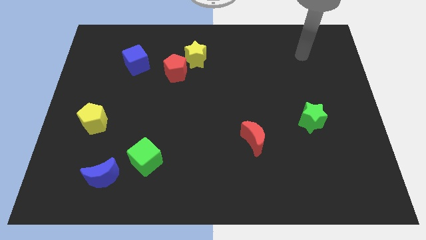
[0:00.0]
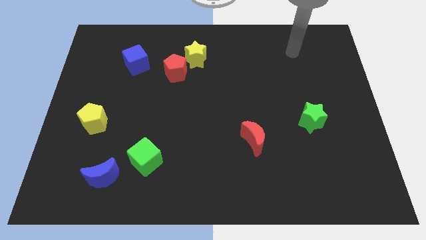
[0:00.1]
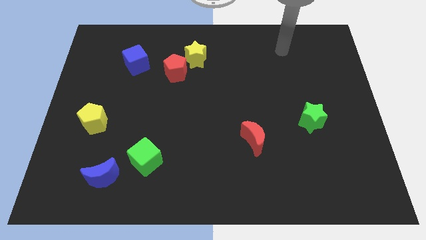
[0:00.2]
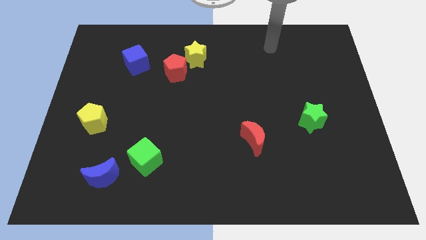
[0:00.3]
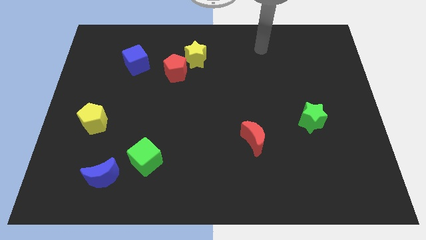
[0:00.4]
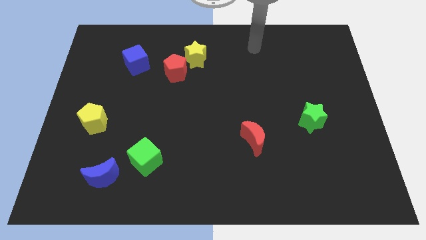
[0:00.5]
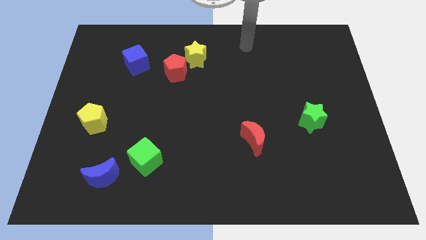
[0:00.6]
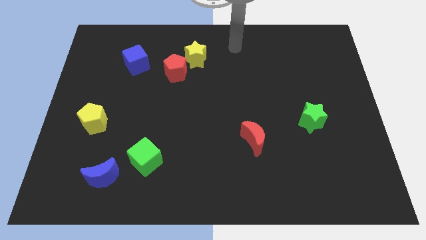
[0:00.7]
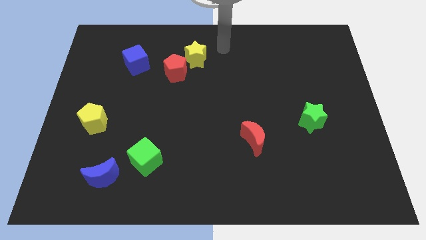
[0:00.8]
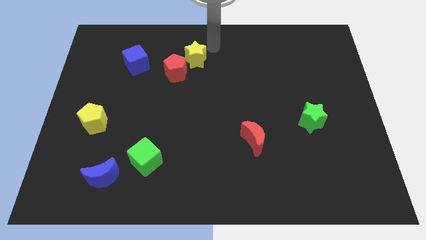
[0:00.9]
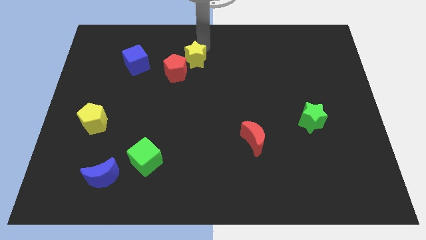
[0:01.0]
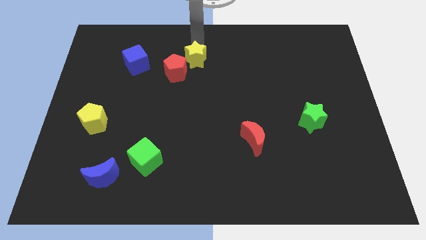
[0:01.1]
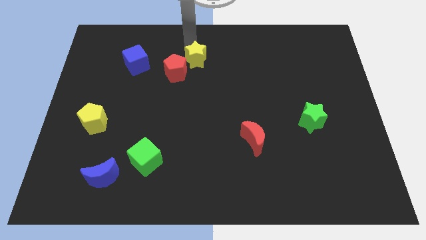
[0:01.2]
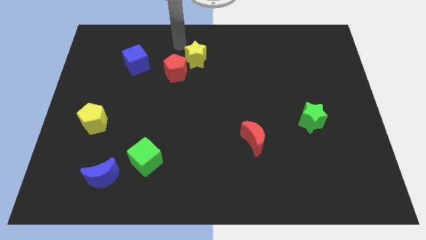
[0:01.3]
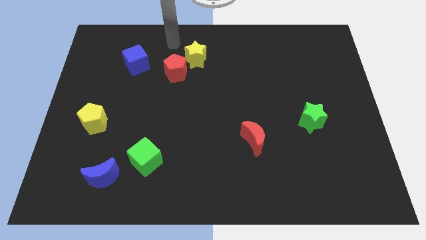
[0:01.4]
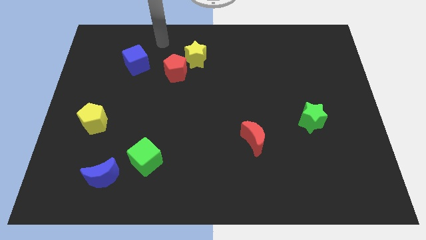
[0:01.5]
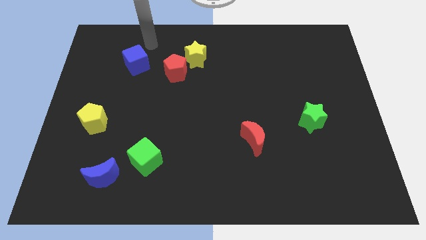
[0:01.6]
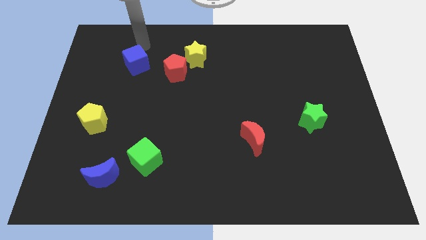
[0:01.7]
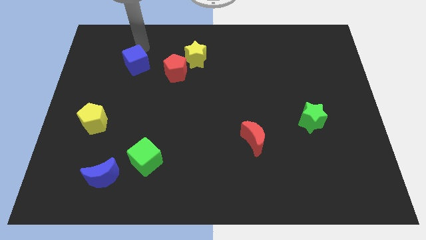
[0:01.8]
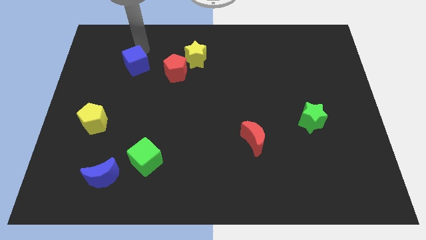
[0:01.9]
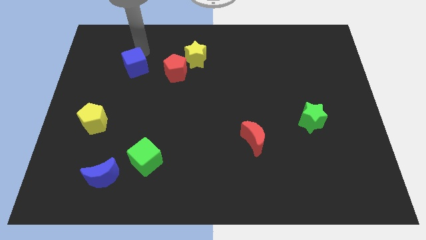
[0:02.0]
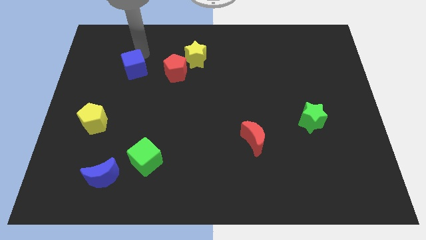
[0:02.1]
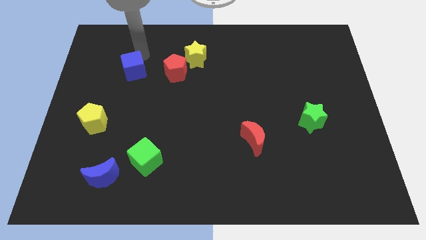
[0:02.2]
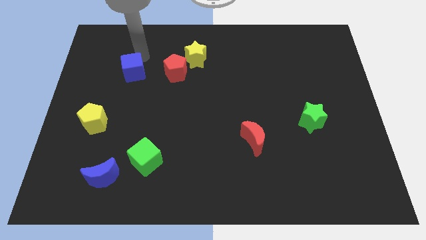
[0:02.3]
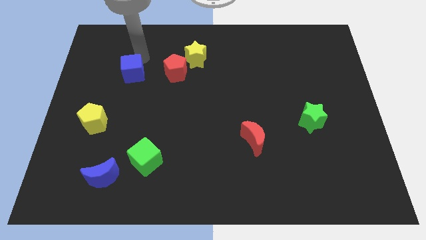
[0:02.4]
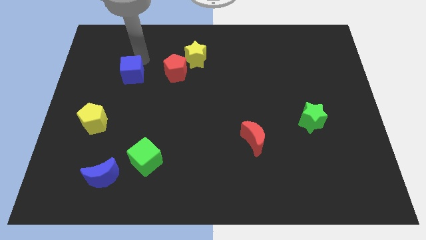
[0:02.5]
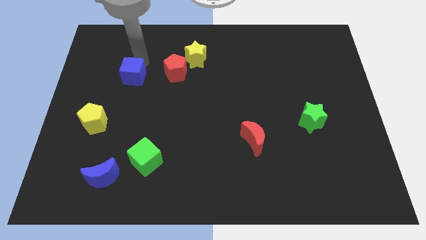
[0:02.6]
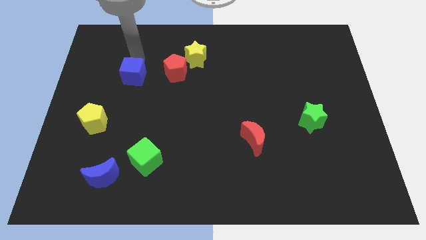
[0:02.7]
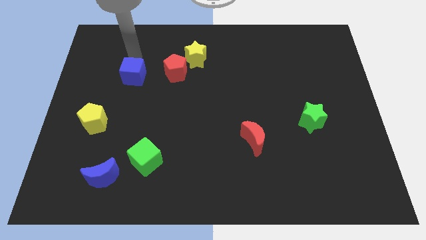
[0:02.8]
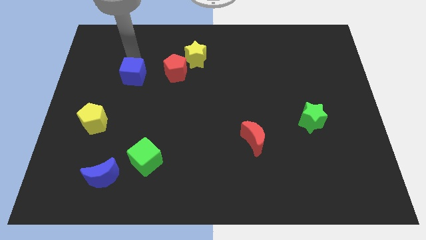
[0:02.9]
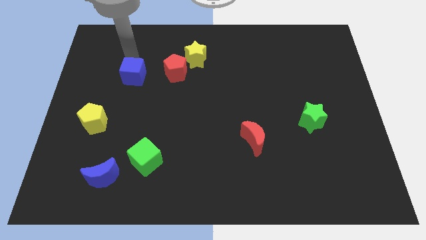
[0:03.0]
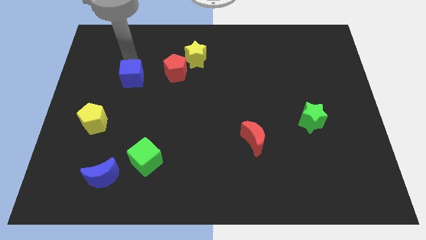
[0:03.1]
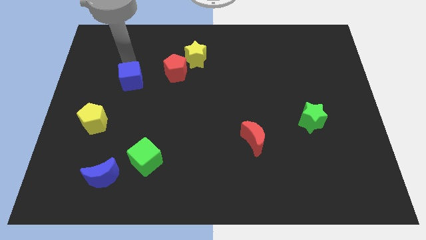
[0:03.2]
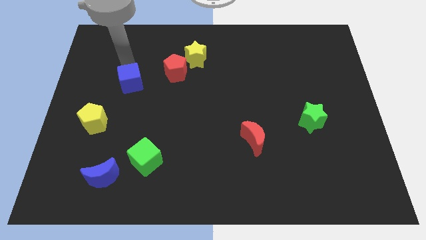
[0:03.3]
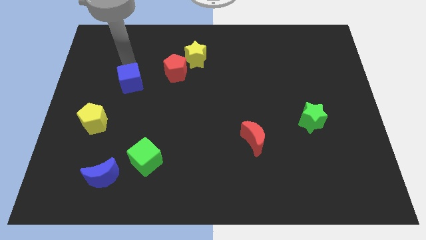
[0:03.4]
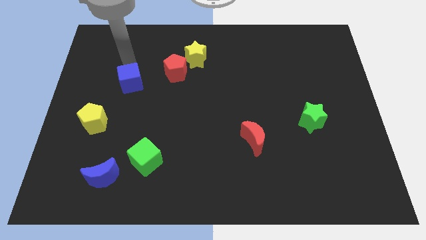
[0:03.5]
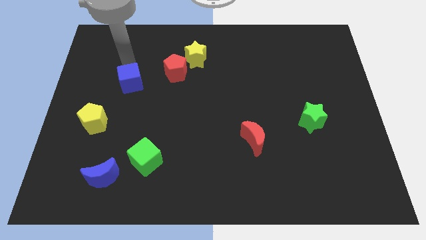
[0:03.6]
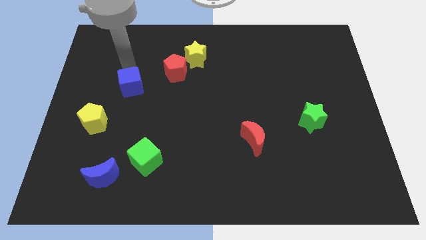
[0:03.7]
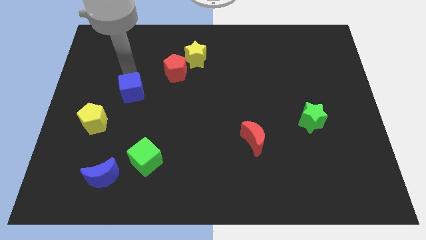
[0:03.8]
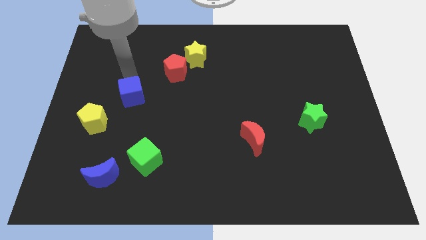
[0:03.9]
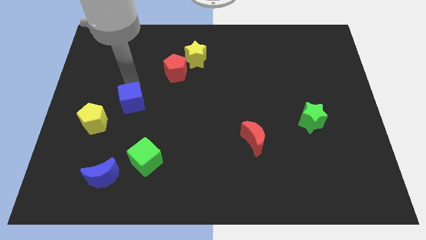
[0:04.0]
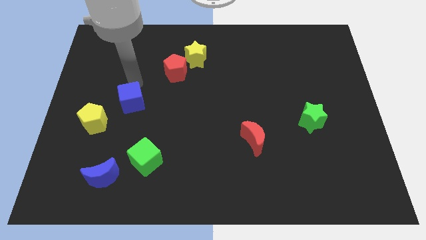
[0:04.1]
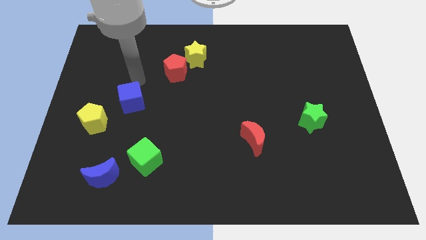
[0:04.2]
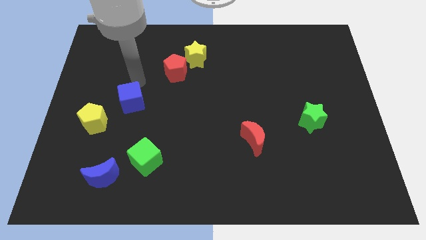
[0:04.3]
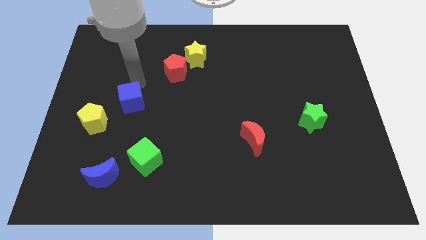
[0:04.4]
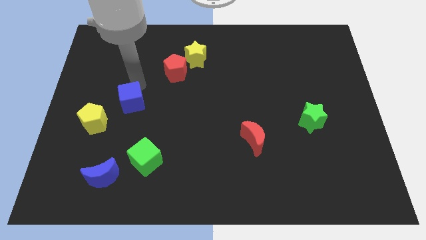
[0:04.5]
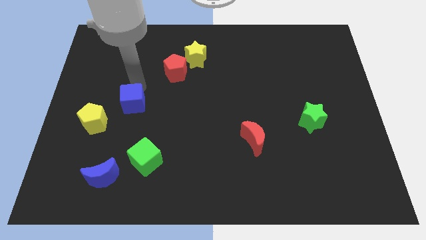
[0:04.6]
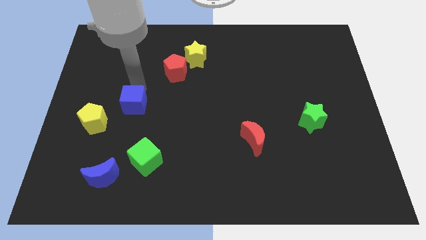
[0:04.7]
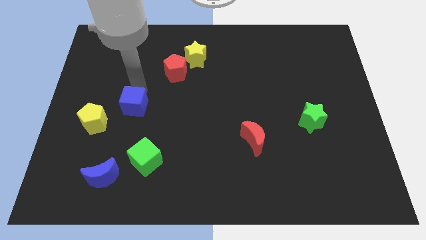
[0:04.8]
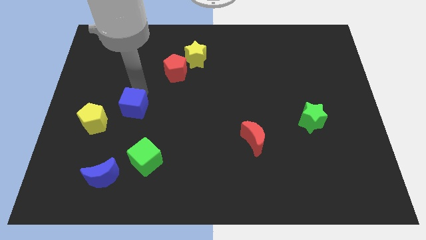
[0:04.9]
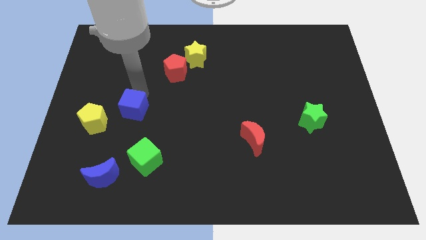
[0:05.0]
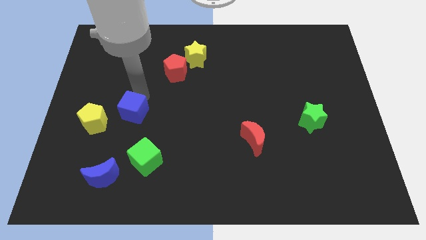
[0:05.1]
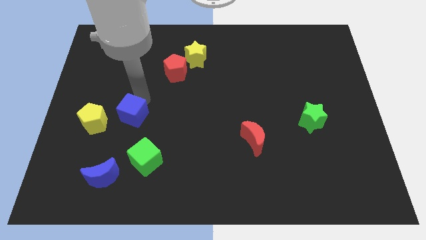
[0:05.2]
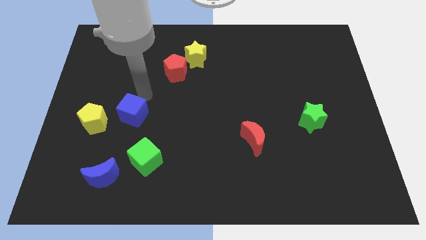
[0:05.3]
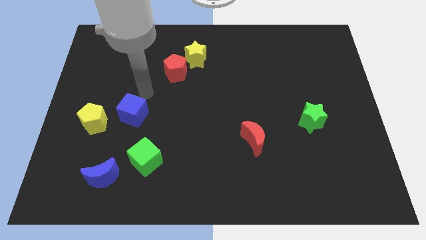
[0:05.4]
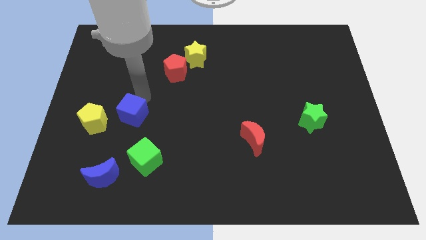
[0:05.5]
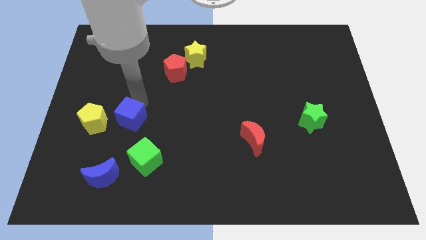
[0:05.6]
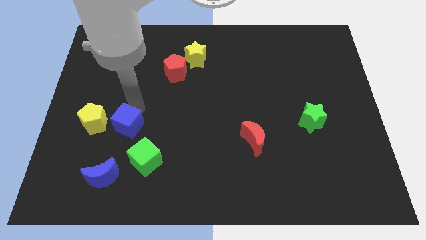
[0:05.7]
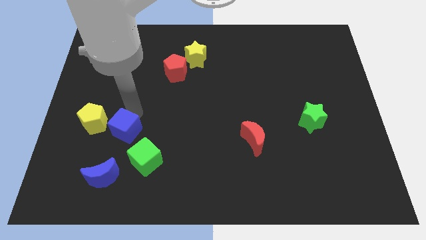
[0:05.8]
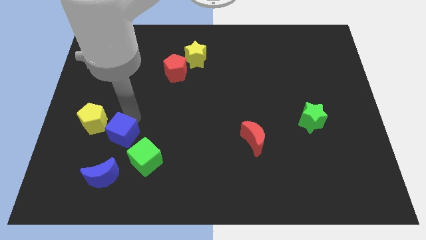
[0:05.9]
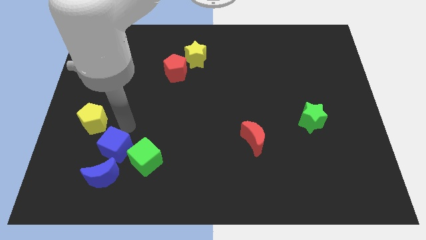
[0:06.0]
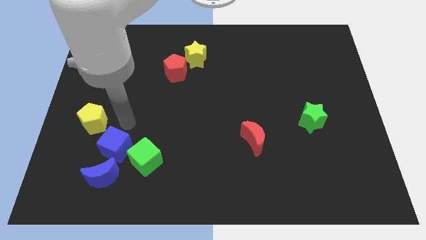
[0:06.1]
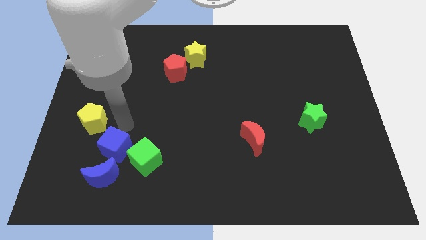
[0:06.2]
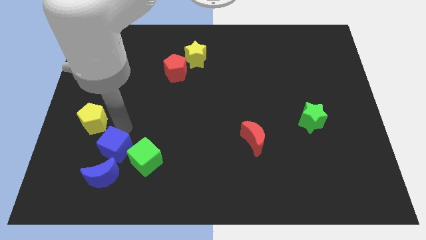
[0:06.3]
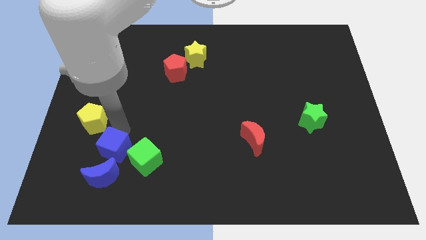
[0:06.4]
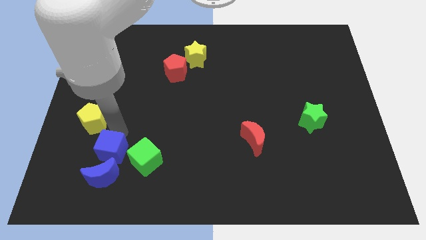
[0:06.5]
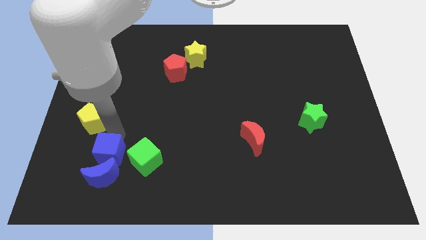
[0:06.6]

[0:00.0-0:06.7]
push the blue cube close to the blue moon
